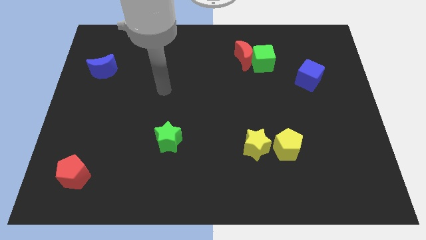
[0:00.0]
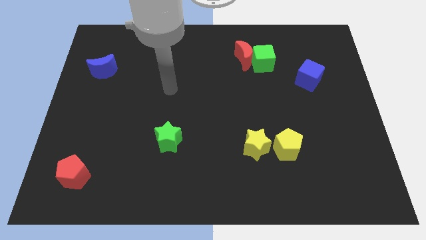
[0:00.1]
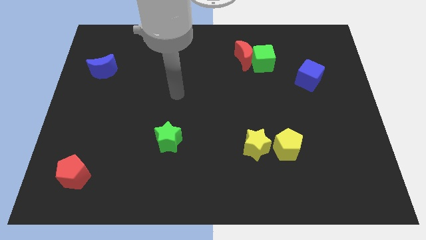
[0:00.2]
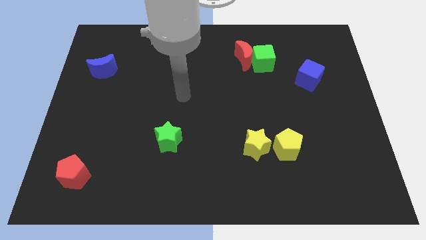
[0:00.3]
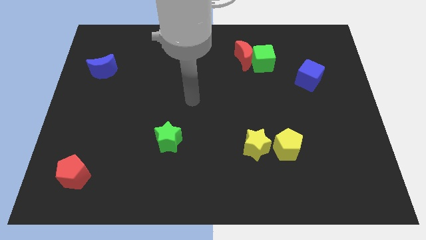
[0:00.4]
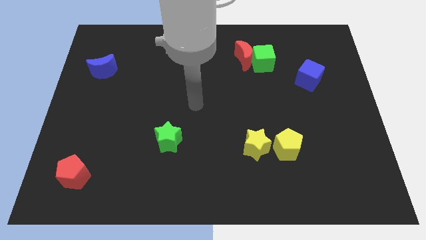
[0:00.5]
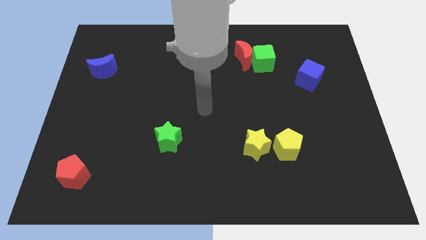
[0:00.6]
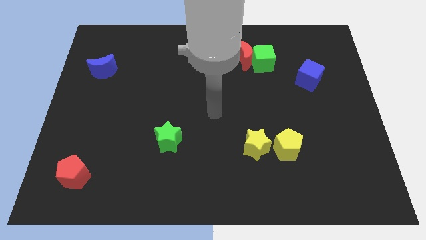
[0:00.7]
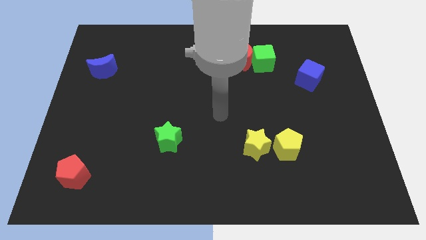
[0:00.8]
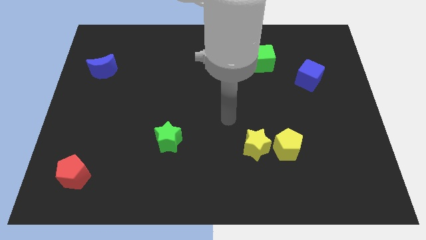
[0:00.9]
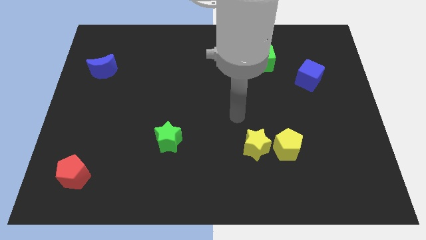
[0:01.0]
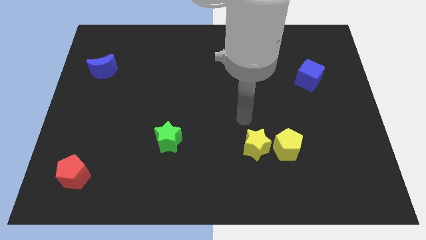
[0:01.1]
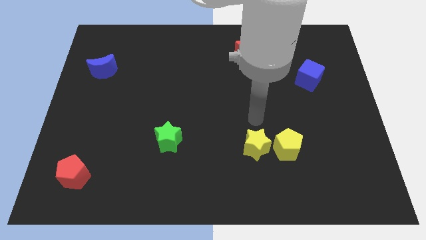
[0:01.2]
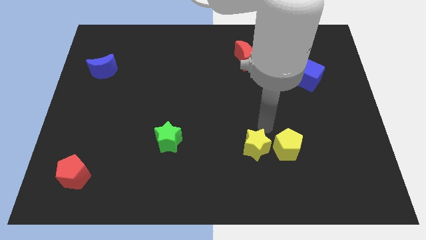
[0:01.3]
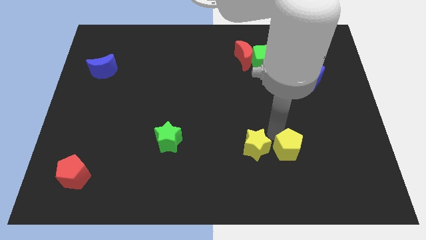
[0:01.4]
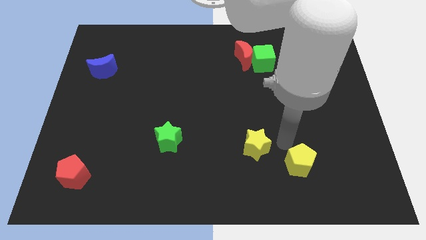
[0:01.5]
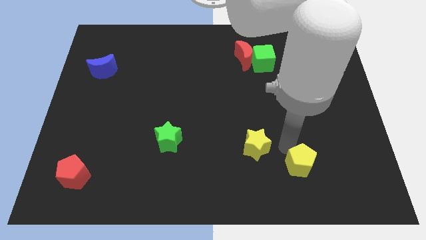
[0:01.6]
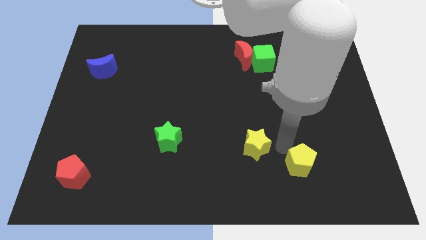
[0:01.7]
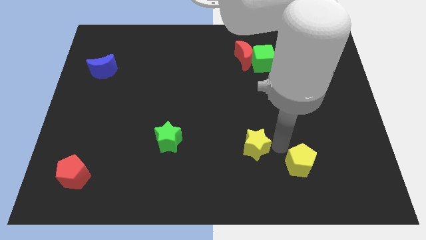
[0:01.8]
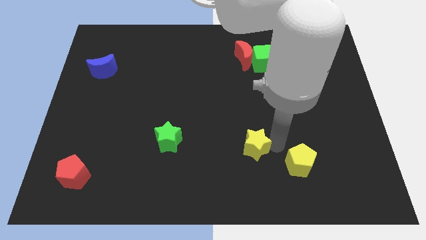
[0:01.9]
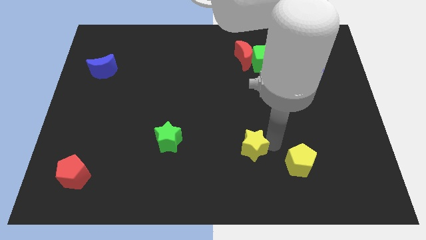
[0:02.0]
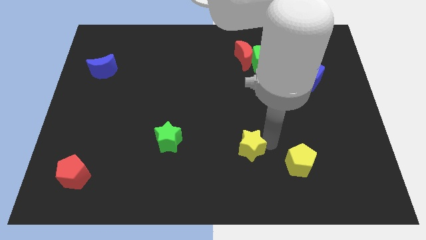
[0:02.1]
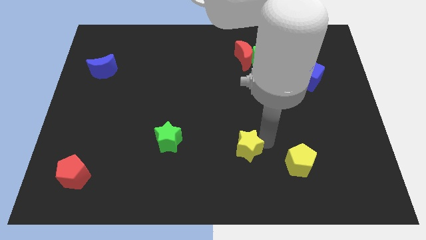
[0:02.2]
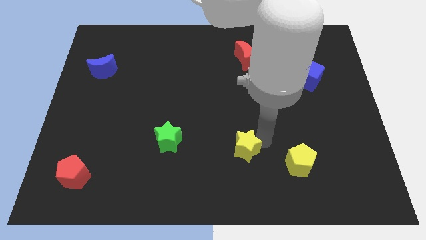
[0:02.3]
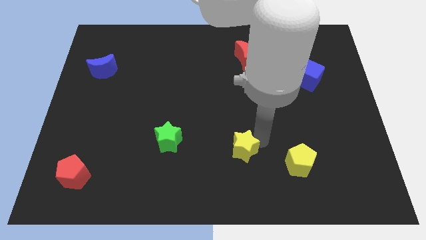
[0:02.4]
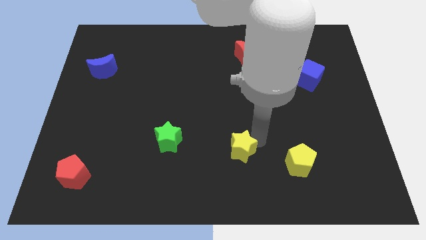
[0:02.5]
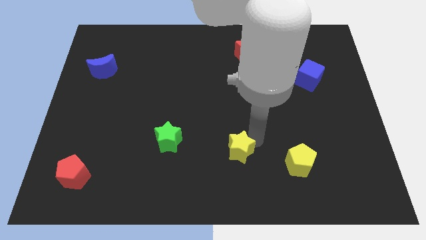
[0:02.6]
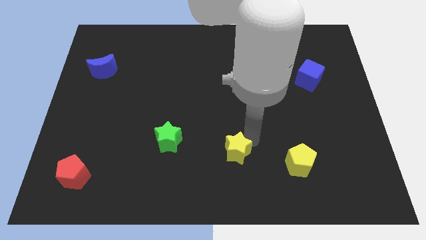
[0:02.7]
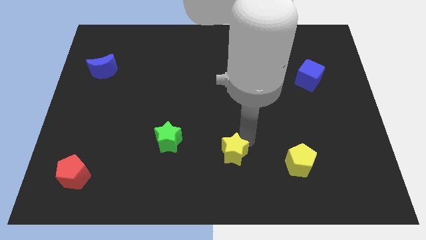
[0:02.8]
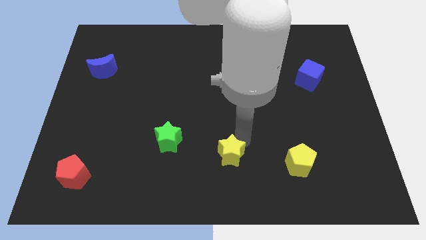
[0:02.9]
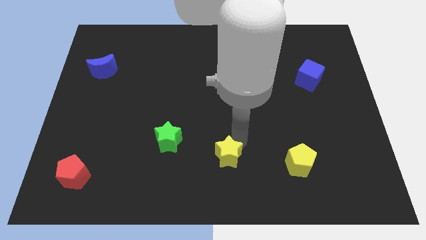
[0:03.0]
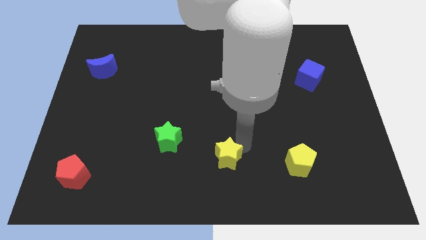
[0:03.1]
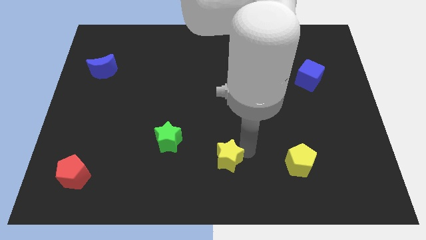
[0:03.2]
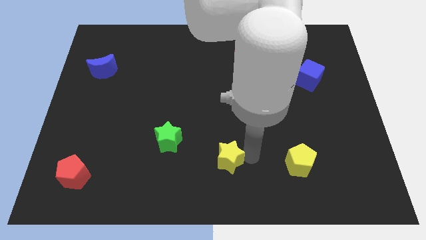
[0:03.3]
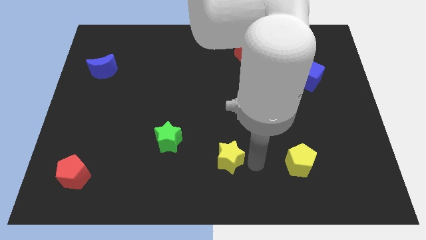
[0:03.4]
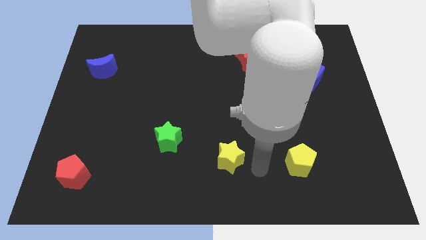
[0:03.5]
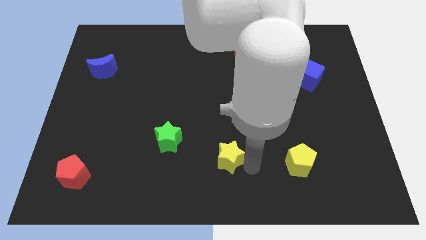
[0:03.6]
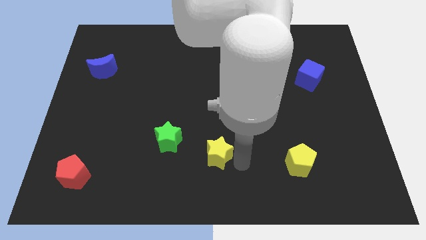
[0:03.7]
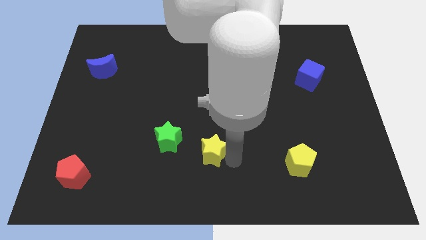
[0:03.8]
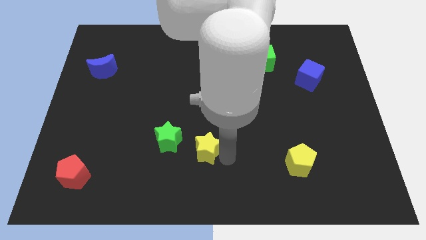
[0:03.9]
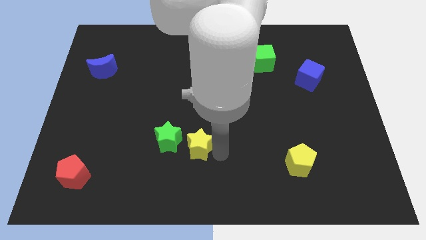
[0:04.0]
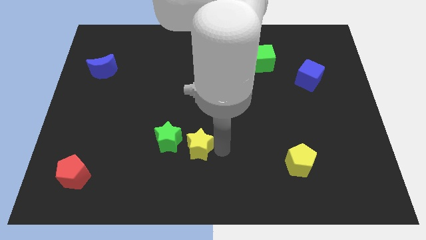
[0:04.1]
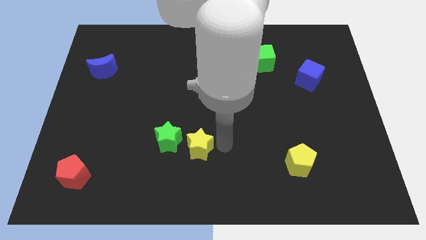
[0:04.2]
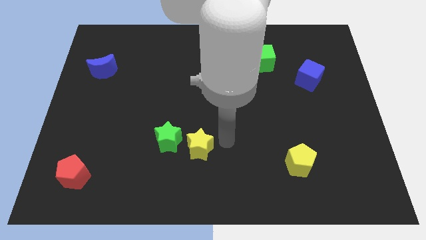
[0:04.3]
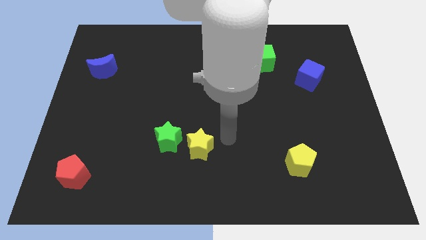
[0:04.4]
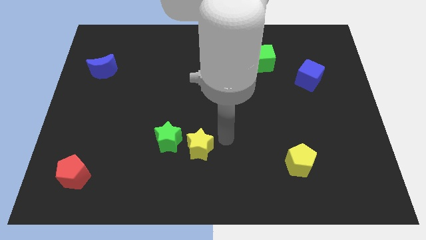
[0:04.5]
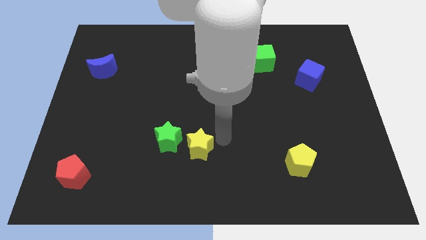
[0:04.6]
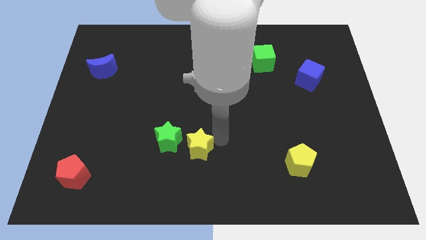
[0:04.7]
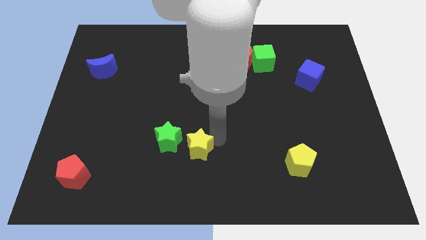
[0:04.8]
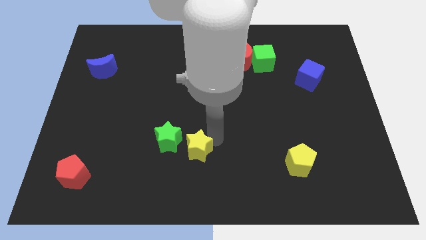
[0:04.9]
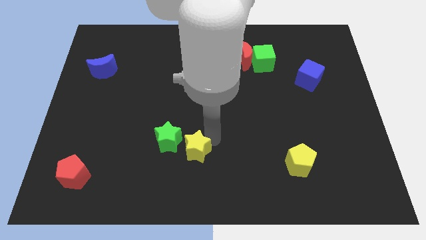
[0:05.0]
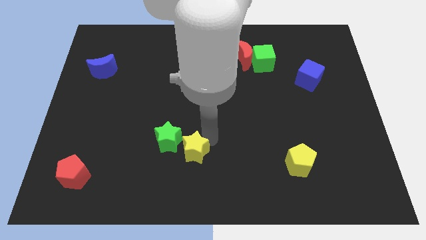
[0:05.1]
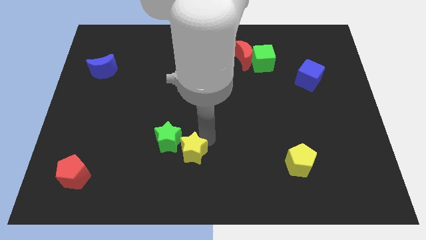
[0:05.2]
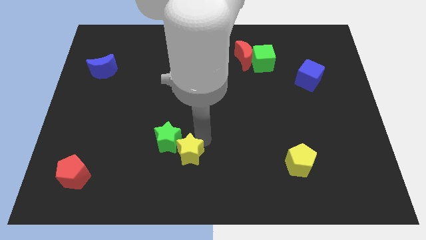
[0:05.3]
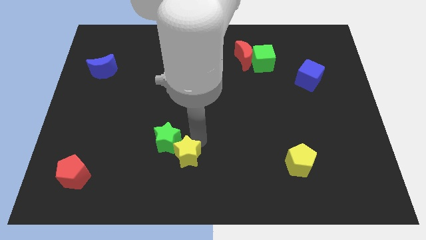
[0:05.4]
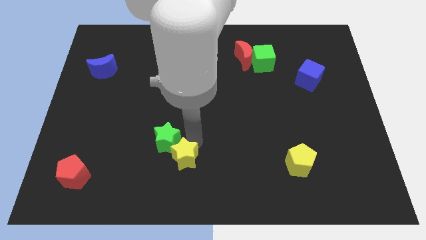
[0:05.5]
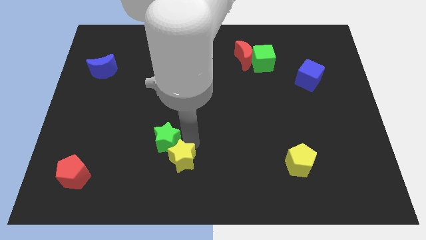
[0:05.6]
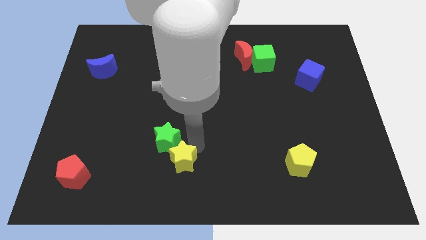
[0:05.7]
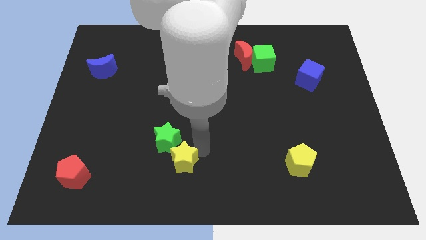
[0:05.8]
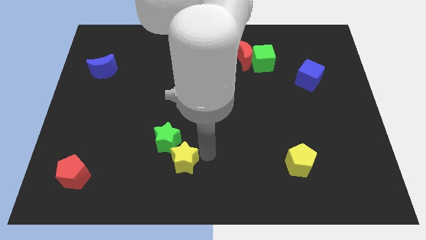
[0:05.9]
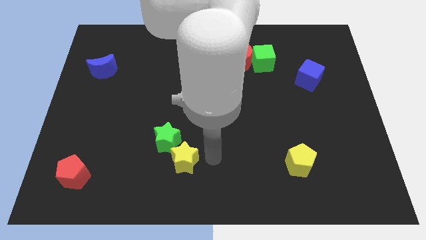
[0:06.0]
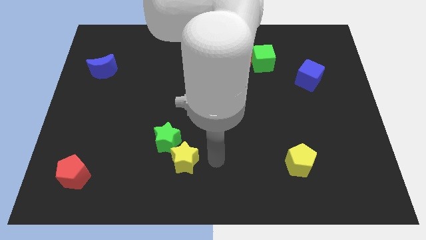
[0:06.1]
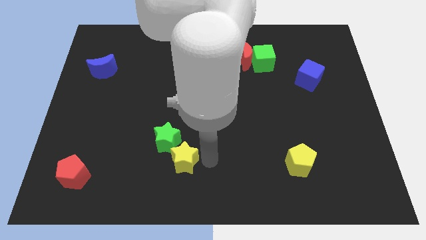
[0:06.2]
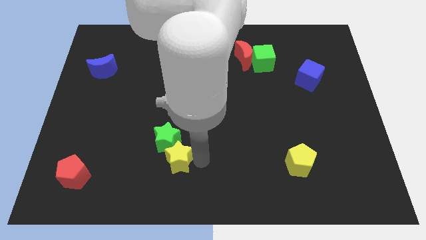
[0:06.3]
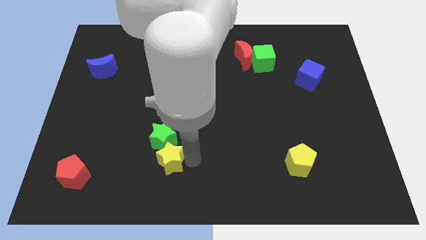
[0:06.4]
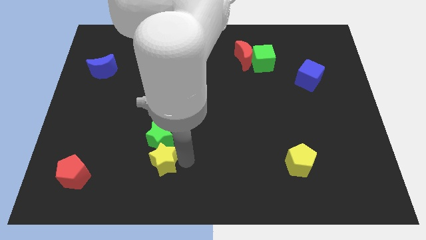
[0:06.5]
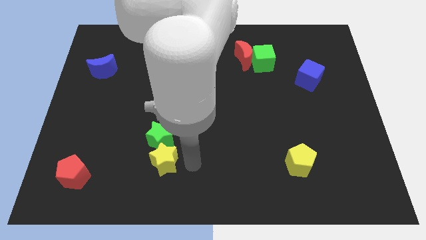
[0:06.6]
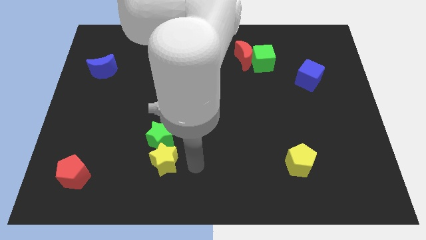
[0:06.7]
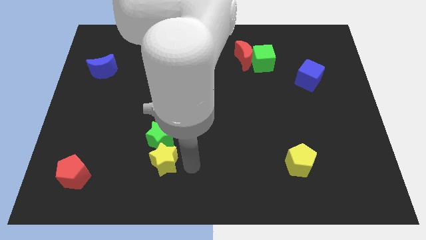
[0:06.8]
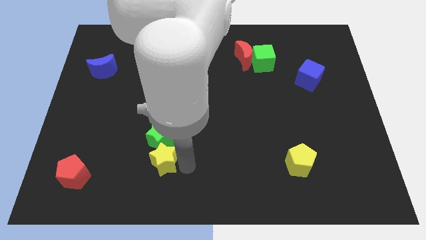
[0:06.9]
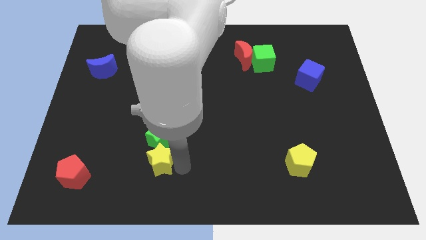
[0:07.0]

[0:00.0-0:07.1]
slide the yellow star to the left

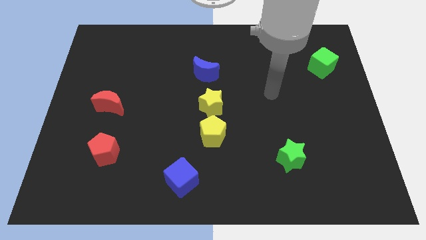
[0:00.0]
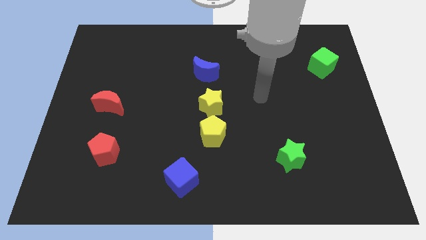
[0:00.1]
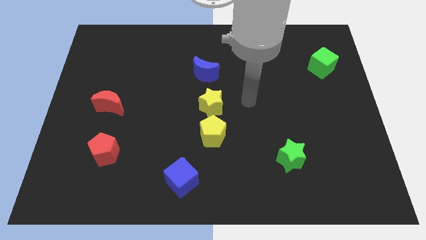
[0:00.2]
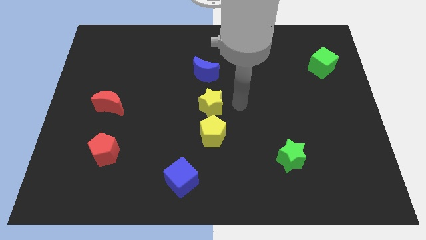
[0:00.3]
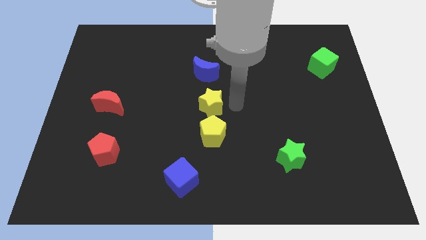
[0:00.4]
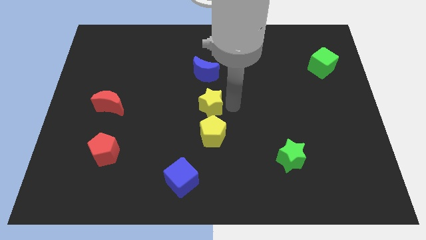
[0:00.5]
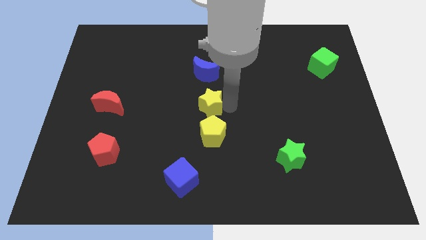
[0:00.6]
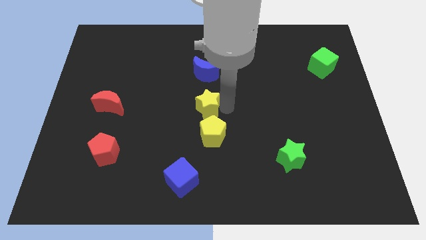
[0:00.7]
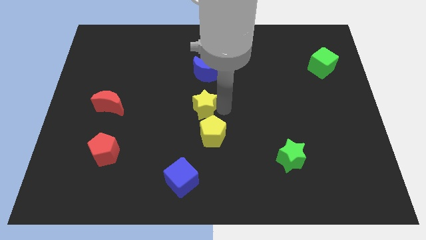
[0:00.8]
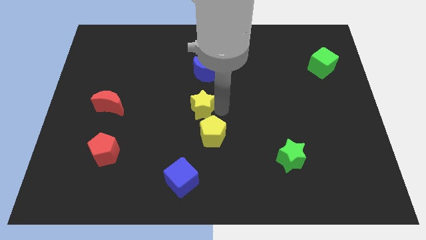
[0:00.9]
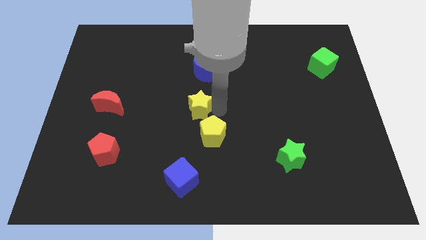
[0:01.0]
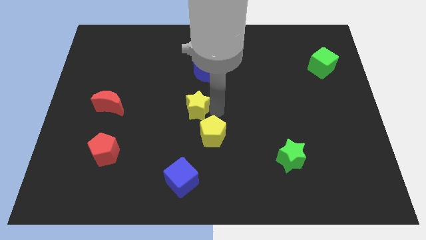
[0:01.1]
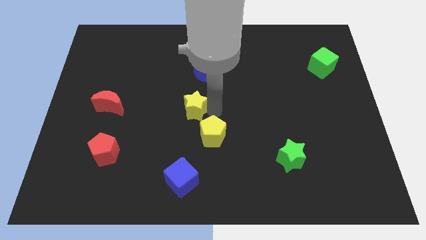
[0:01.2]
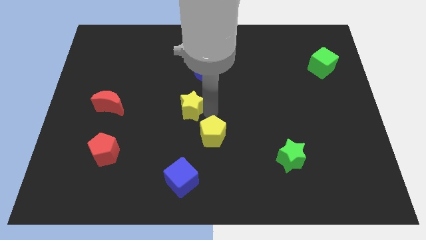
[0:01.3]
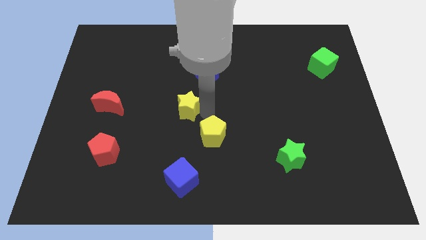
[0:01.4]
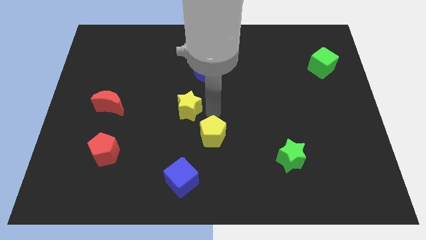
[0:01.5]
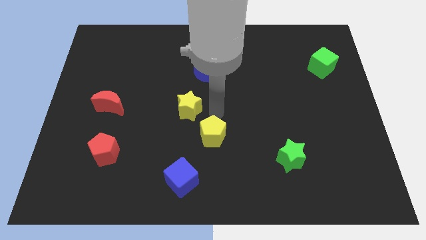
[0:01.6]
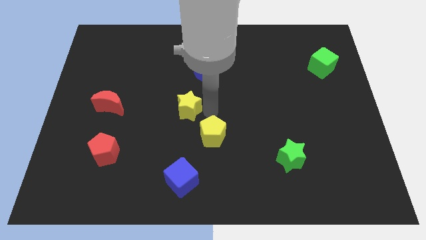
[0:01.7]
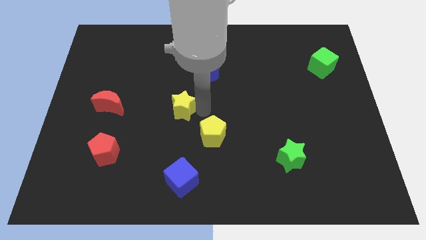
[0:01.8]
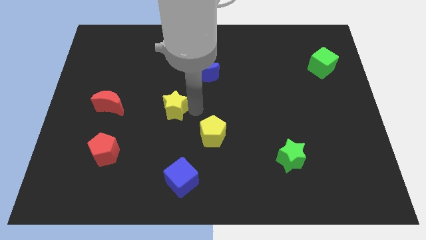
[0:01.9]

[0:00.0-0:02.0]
push the yellow star left a little bit
